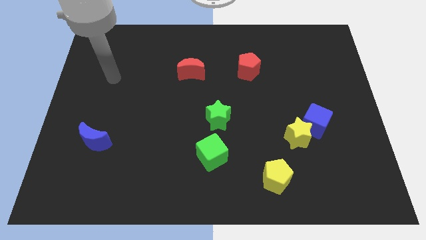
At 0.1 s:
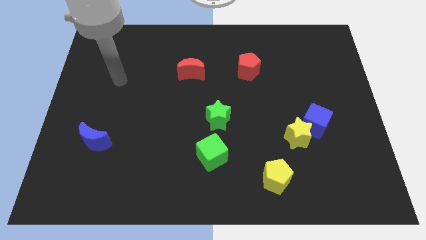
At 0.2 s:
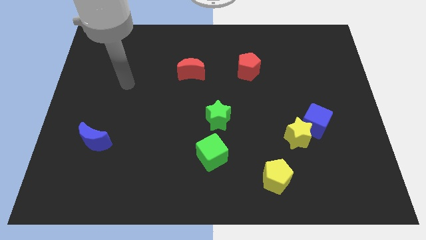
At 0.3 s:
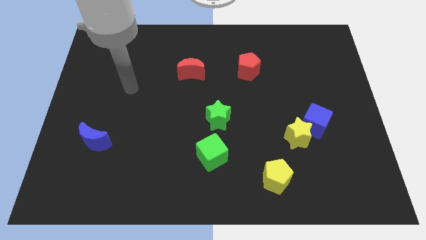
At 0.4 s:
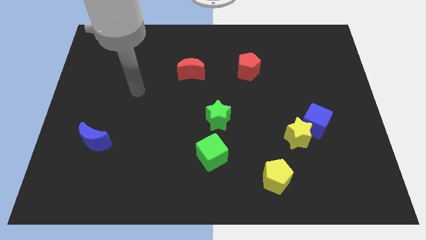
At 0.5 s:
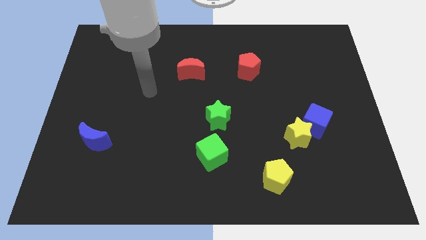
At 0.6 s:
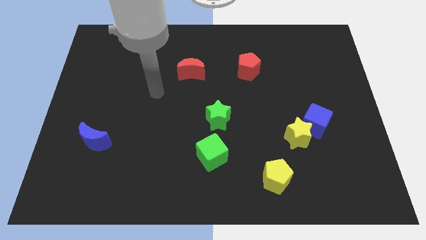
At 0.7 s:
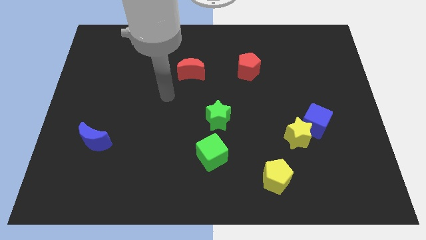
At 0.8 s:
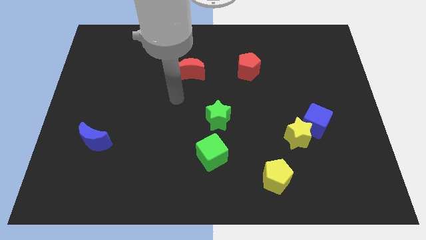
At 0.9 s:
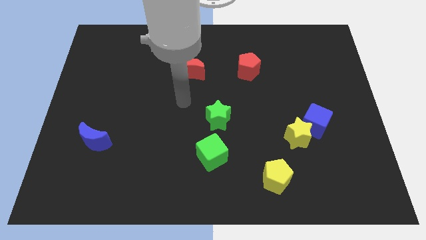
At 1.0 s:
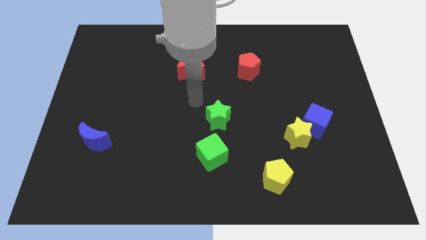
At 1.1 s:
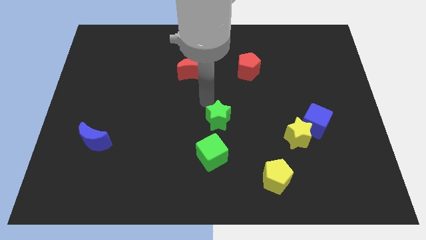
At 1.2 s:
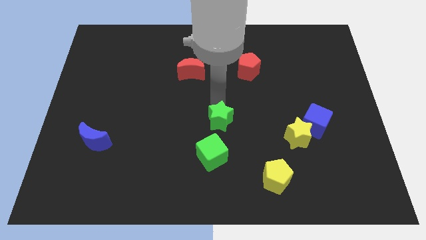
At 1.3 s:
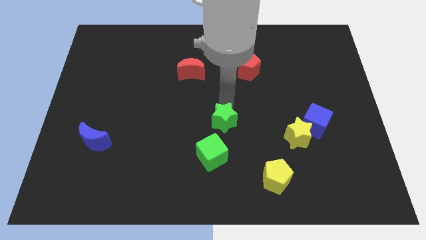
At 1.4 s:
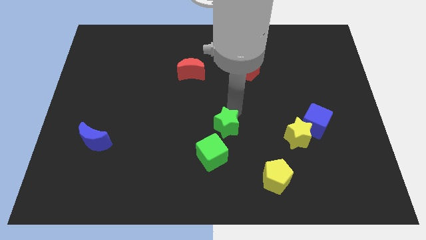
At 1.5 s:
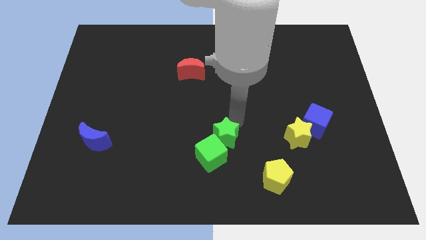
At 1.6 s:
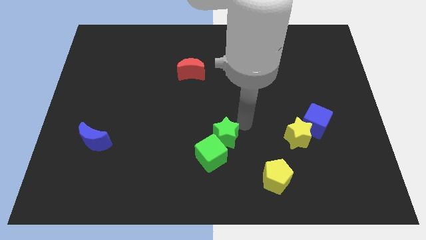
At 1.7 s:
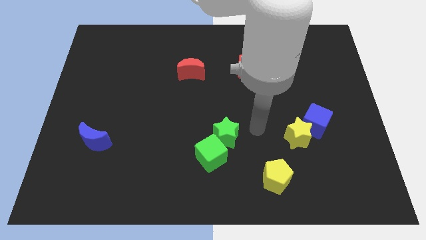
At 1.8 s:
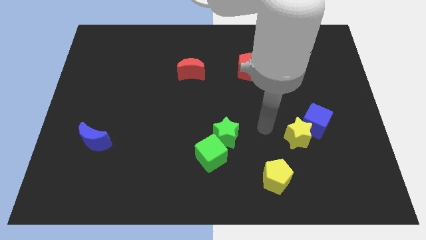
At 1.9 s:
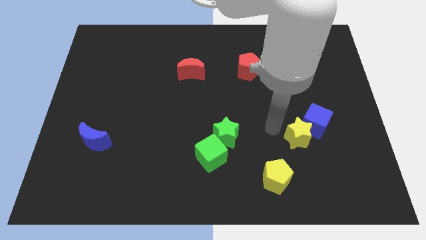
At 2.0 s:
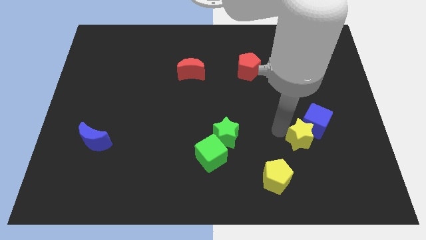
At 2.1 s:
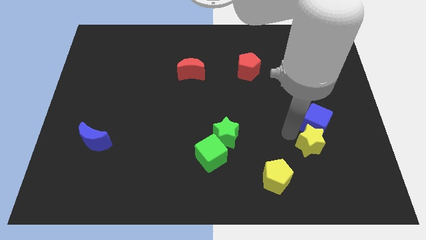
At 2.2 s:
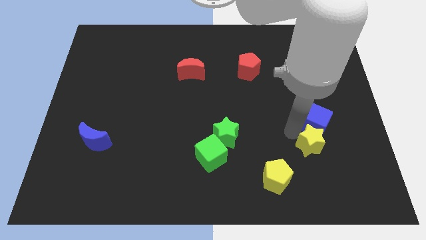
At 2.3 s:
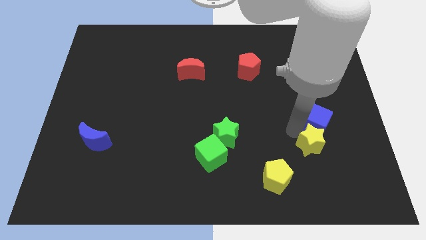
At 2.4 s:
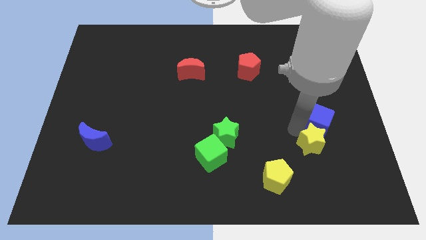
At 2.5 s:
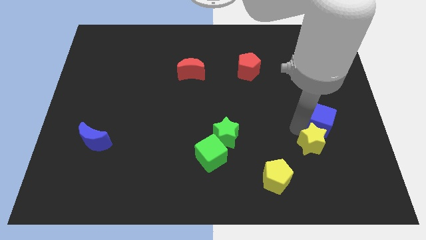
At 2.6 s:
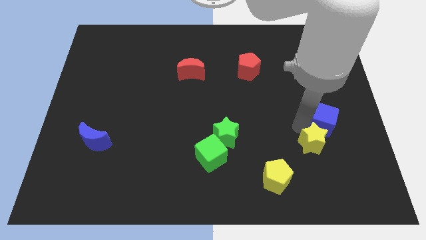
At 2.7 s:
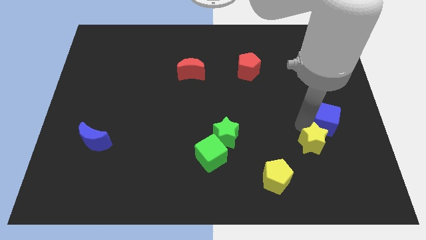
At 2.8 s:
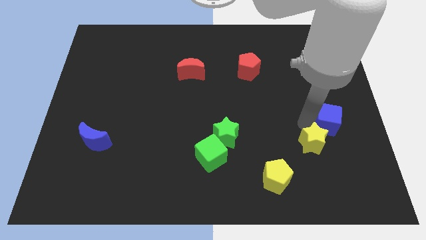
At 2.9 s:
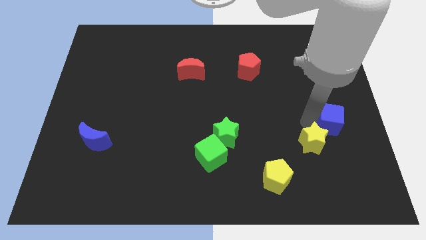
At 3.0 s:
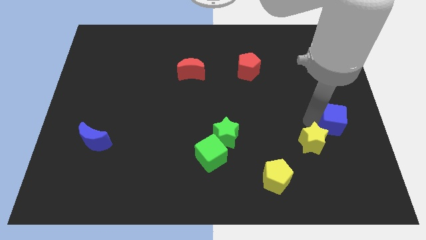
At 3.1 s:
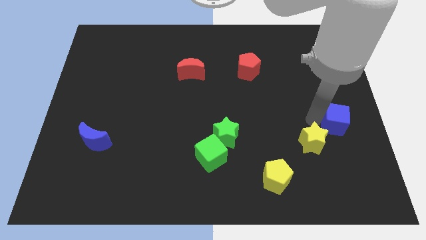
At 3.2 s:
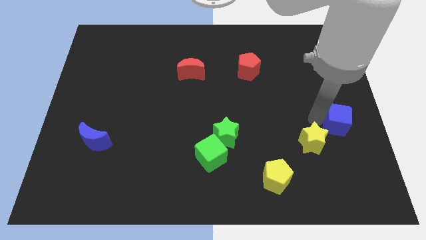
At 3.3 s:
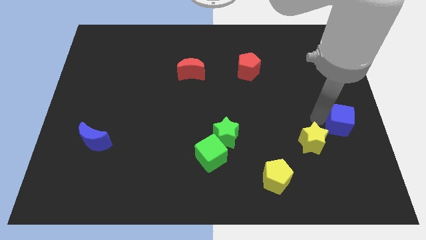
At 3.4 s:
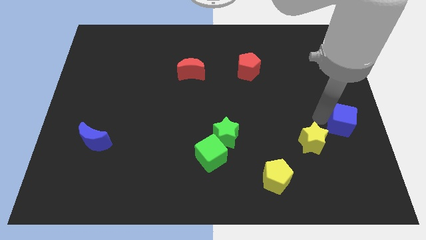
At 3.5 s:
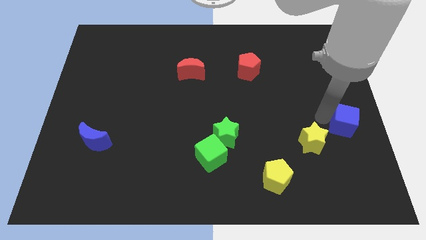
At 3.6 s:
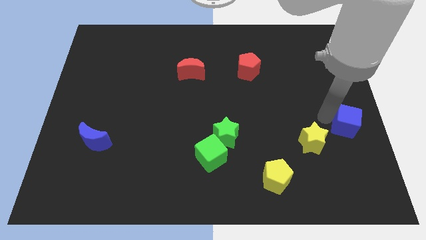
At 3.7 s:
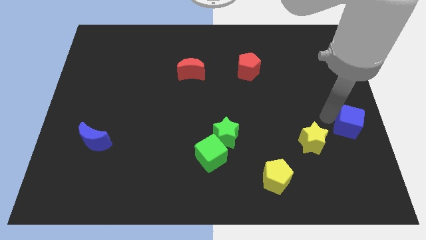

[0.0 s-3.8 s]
move the blue cube away from the yellow star

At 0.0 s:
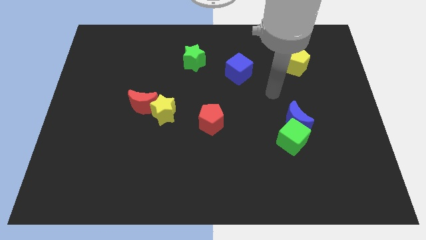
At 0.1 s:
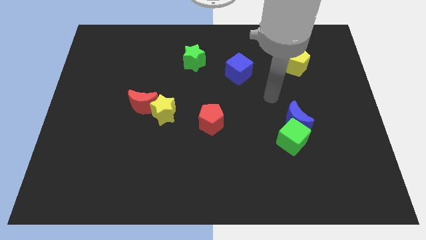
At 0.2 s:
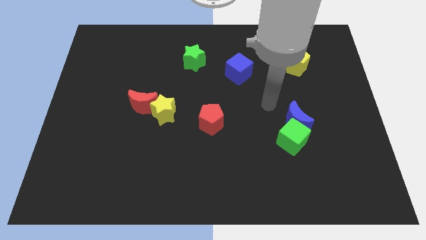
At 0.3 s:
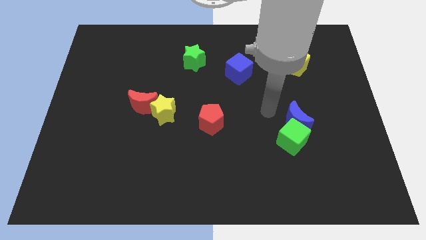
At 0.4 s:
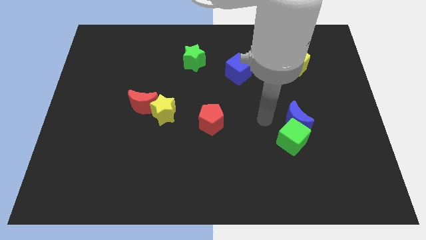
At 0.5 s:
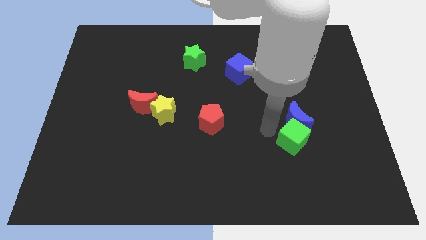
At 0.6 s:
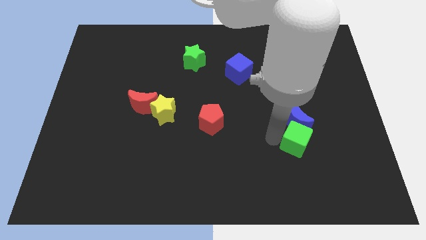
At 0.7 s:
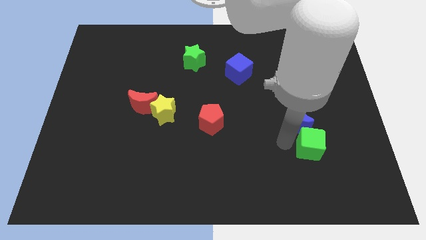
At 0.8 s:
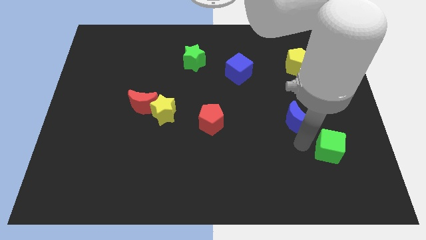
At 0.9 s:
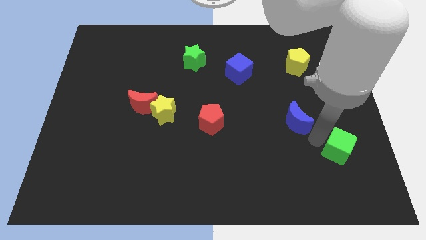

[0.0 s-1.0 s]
separate the blue moon from the green cube

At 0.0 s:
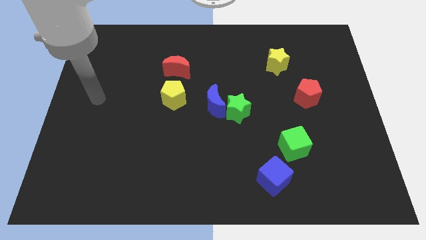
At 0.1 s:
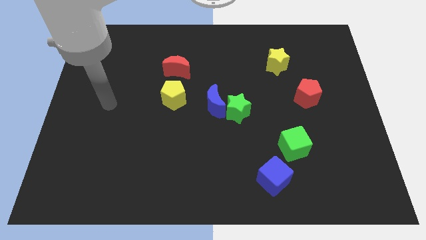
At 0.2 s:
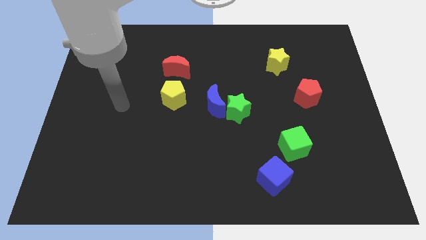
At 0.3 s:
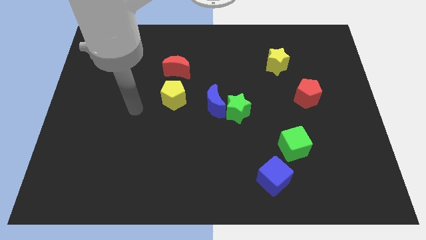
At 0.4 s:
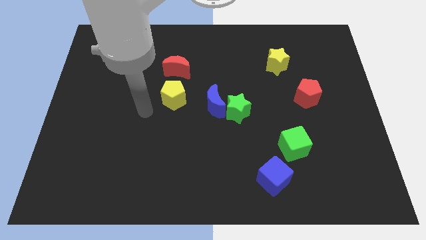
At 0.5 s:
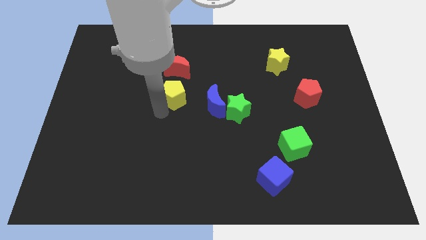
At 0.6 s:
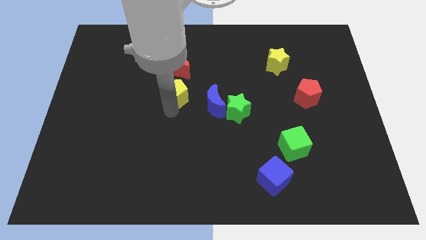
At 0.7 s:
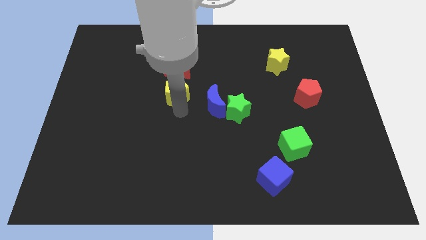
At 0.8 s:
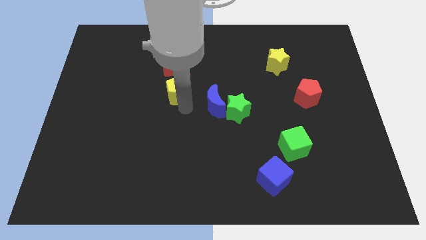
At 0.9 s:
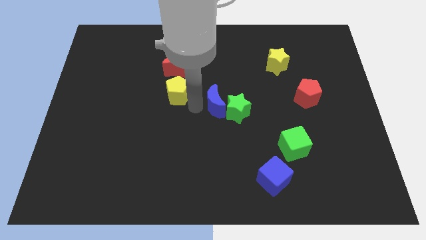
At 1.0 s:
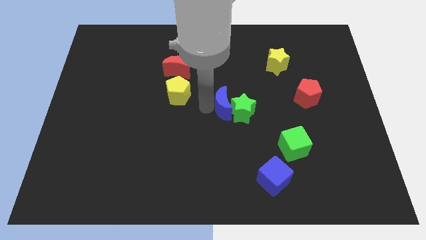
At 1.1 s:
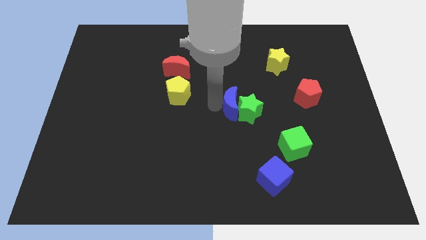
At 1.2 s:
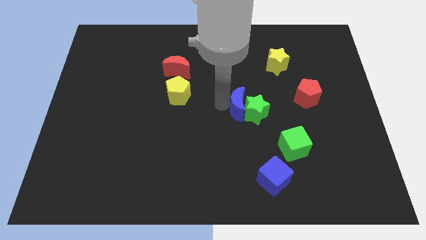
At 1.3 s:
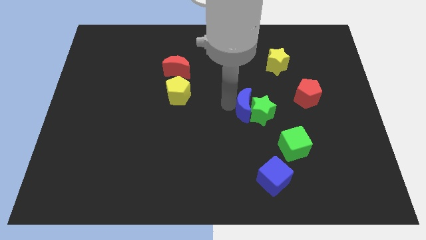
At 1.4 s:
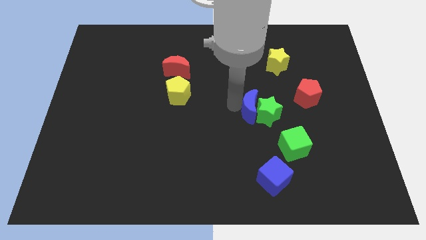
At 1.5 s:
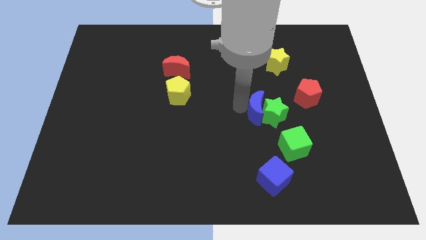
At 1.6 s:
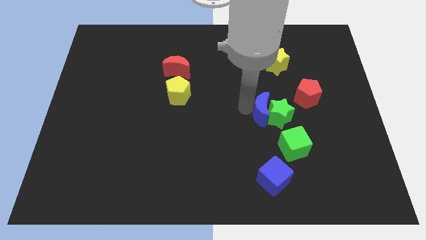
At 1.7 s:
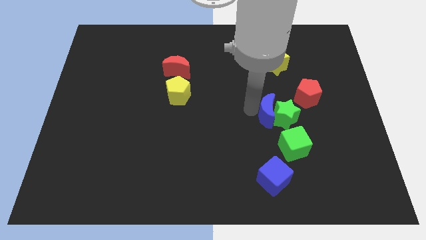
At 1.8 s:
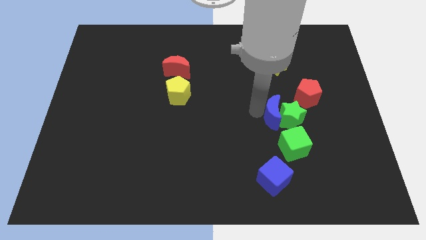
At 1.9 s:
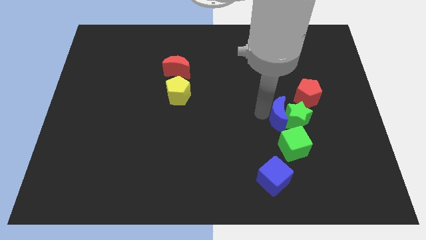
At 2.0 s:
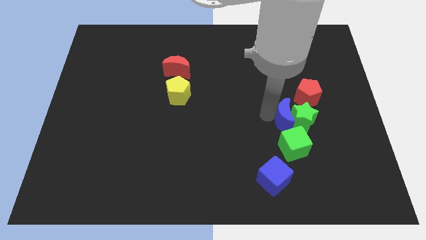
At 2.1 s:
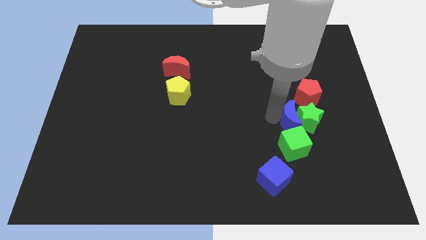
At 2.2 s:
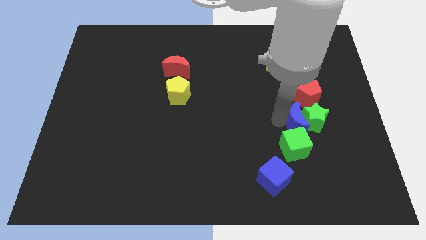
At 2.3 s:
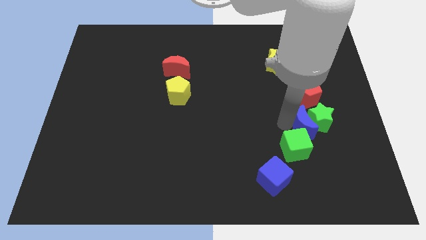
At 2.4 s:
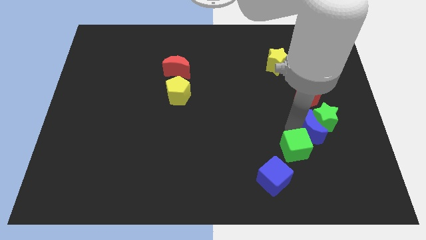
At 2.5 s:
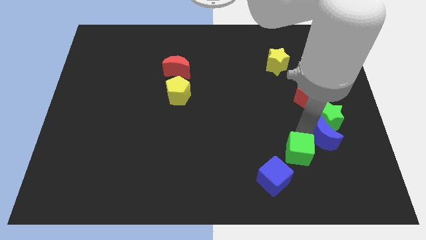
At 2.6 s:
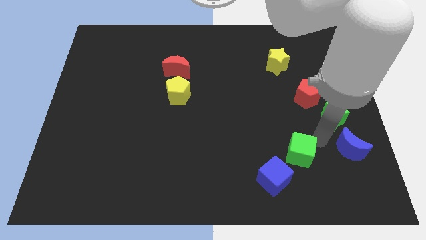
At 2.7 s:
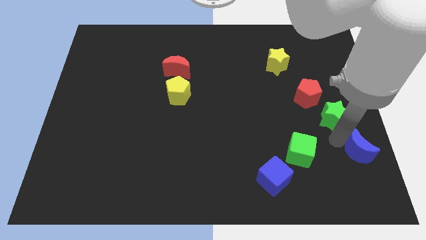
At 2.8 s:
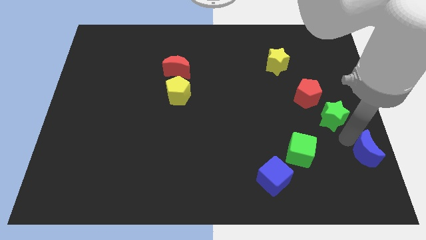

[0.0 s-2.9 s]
separate the green star from the blue moon

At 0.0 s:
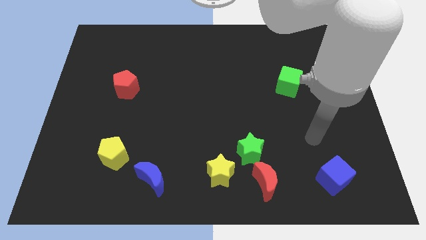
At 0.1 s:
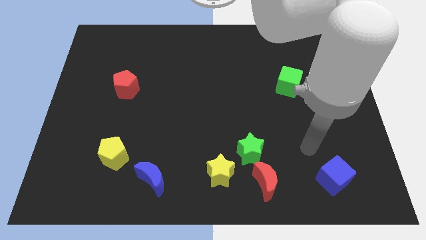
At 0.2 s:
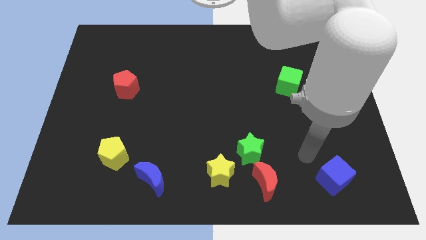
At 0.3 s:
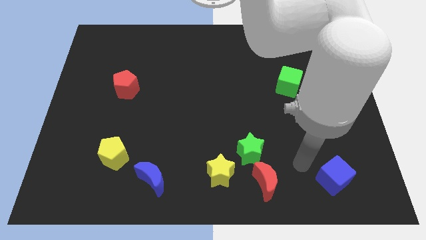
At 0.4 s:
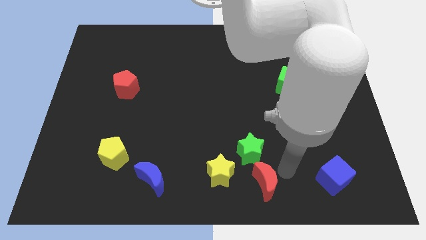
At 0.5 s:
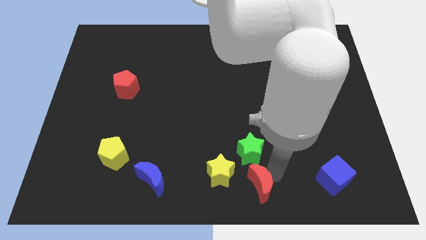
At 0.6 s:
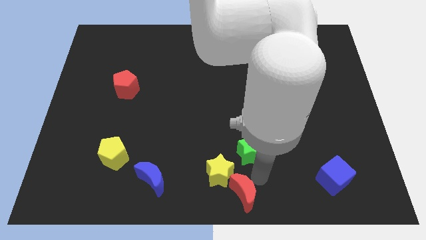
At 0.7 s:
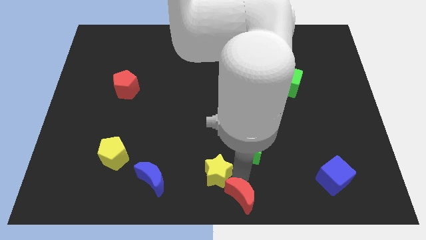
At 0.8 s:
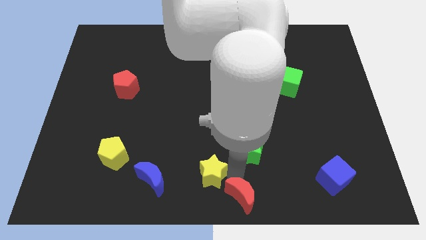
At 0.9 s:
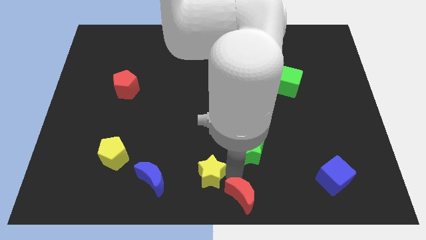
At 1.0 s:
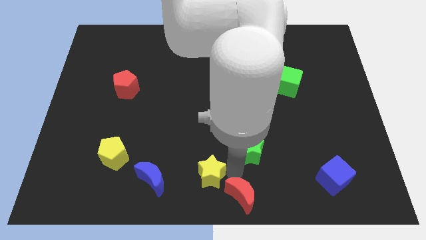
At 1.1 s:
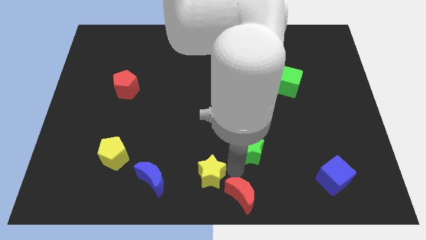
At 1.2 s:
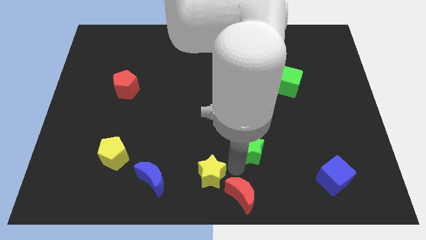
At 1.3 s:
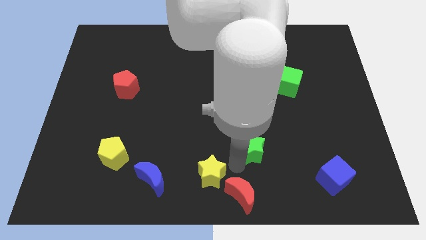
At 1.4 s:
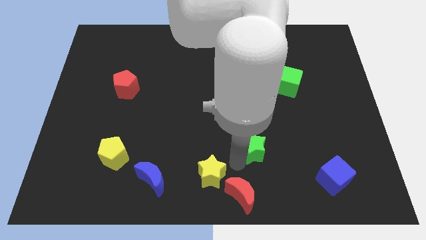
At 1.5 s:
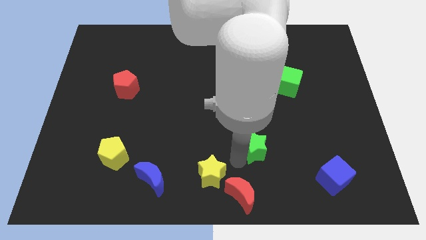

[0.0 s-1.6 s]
pull the green star apart from the red moon and yellow star
